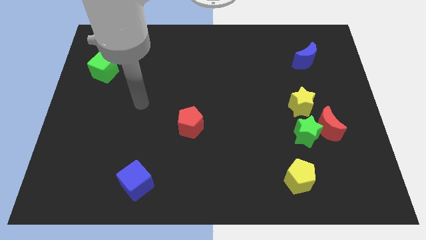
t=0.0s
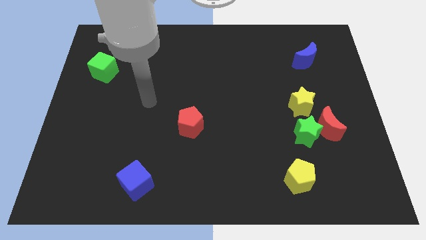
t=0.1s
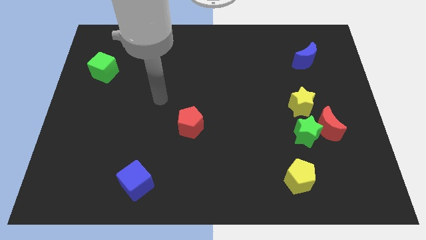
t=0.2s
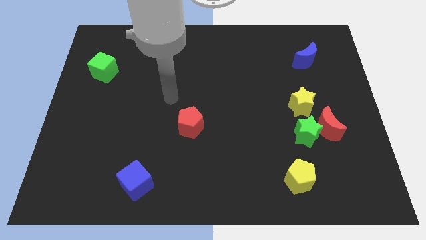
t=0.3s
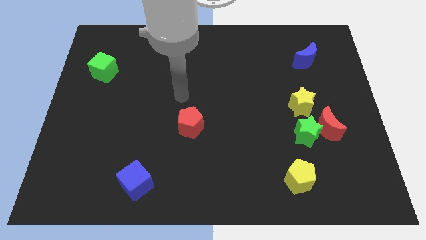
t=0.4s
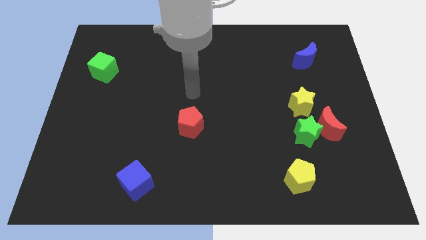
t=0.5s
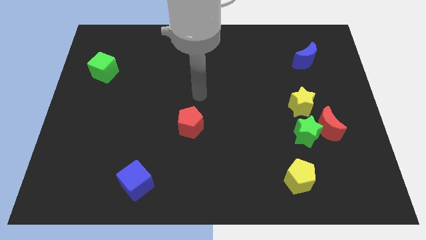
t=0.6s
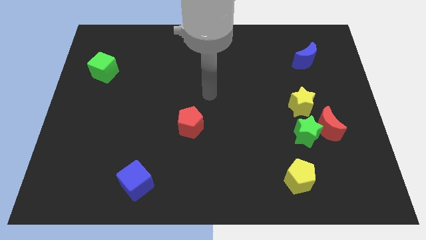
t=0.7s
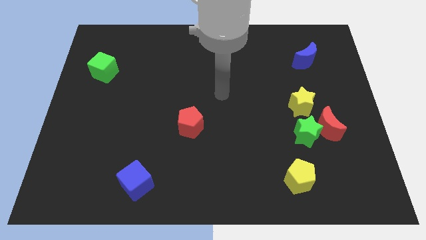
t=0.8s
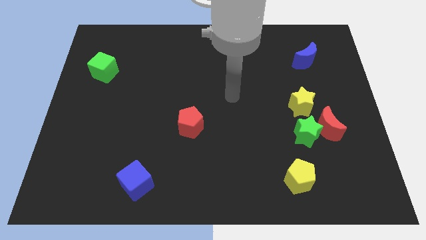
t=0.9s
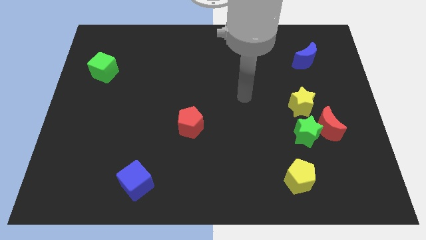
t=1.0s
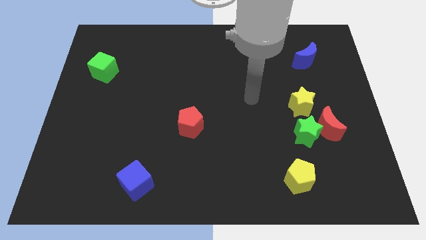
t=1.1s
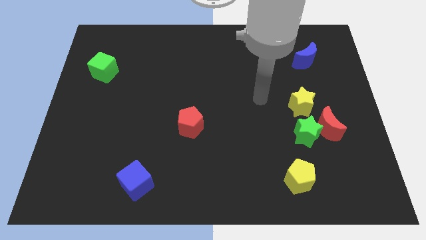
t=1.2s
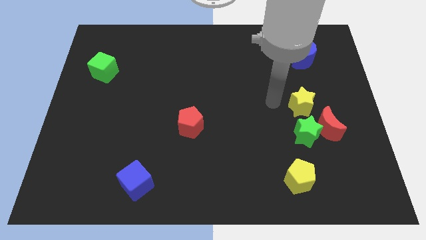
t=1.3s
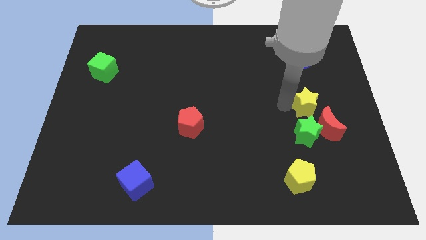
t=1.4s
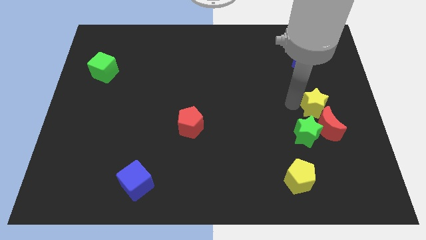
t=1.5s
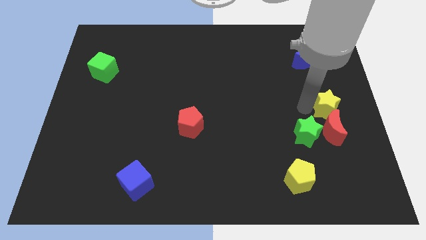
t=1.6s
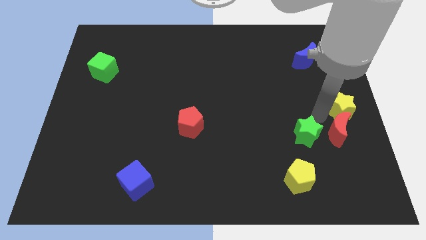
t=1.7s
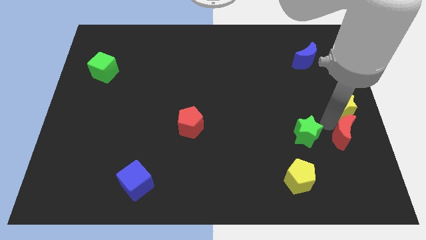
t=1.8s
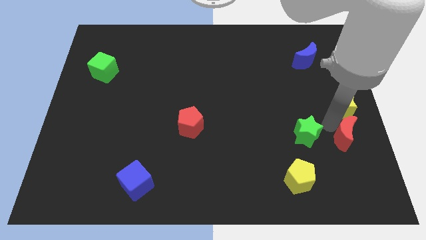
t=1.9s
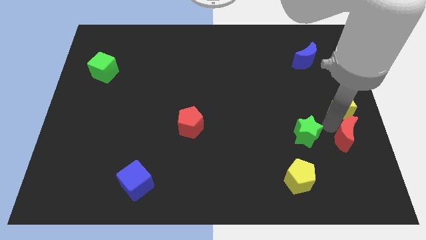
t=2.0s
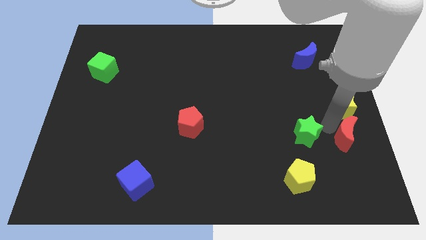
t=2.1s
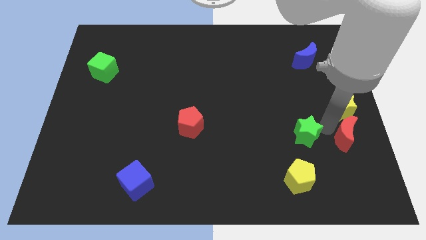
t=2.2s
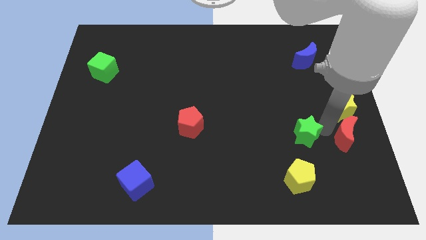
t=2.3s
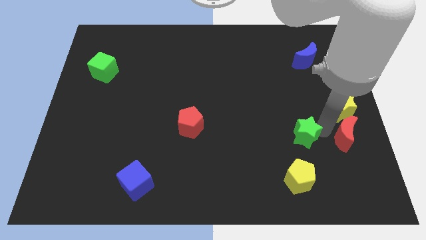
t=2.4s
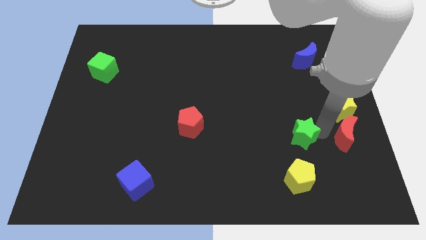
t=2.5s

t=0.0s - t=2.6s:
move the green star away from the red moon and yellow star

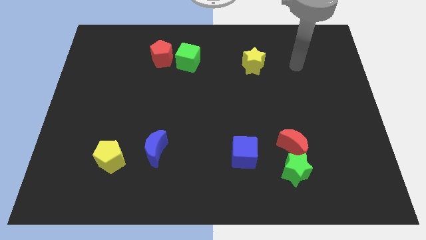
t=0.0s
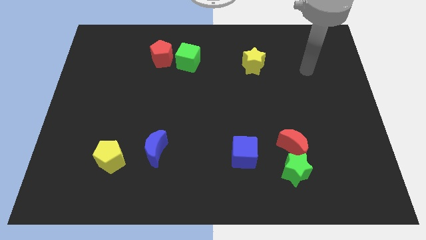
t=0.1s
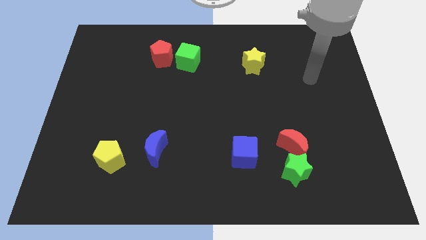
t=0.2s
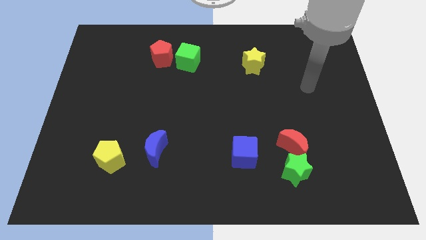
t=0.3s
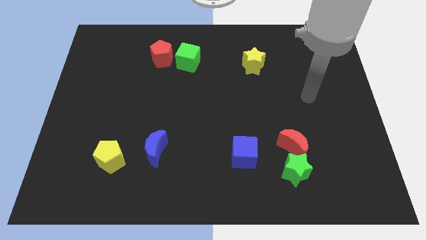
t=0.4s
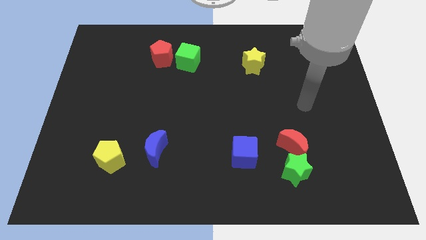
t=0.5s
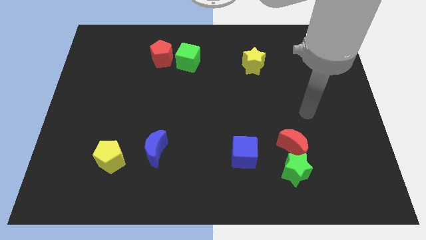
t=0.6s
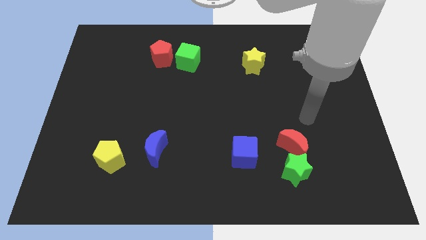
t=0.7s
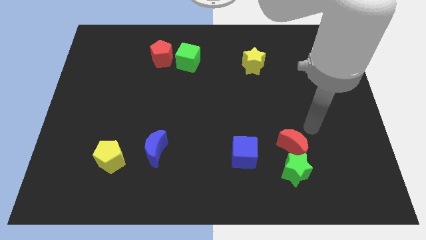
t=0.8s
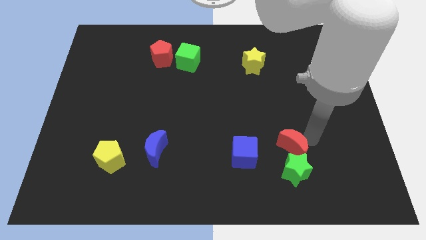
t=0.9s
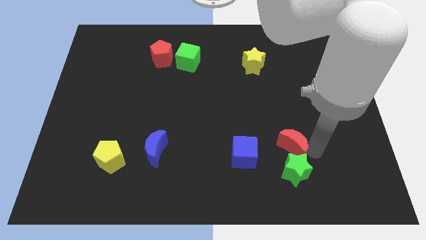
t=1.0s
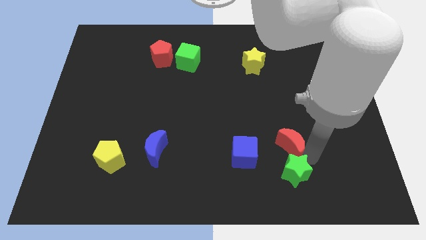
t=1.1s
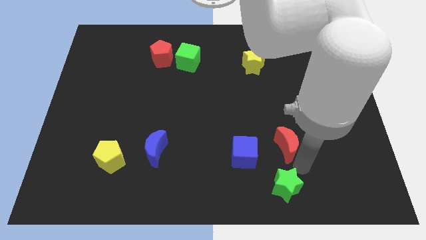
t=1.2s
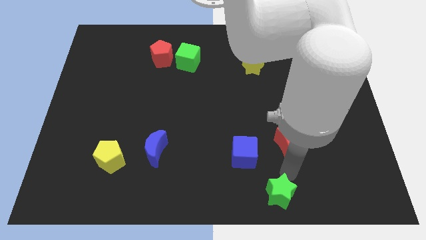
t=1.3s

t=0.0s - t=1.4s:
separate the red moon from the green star

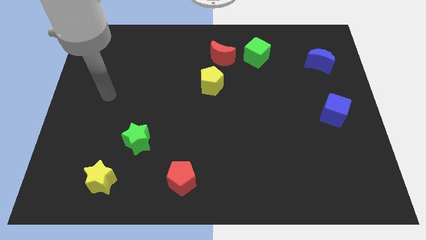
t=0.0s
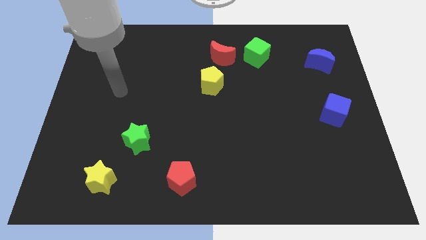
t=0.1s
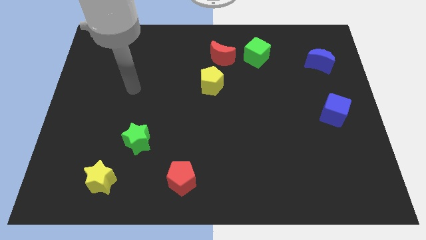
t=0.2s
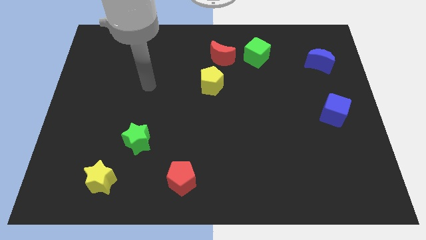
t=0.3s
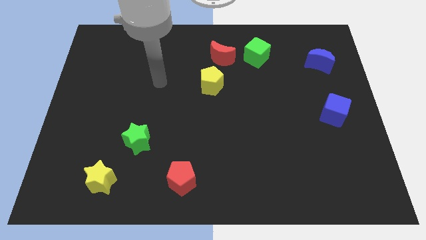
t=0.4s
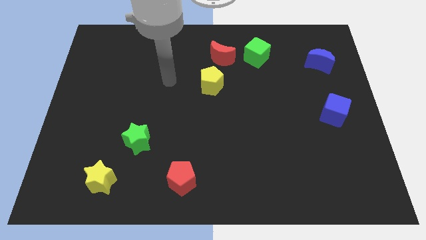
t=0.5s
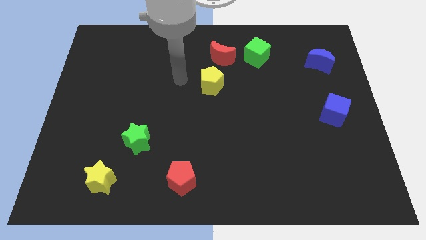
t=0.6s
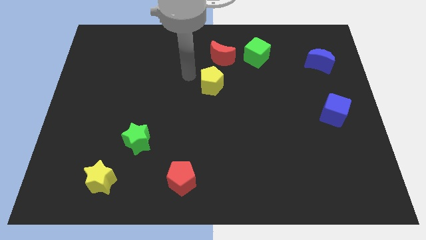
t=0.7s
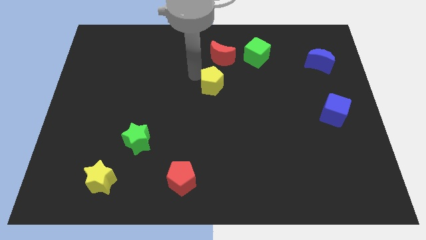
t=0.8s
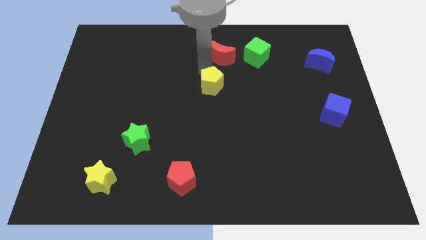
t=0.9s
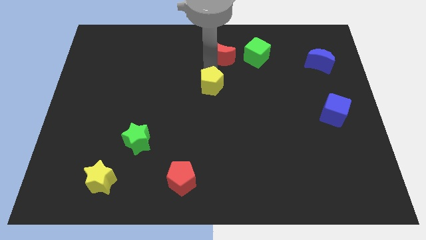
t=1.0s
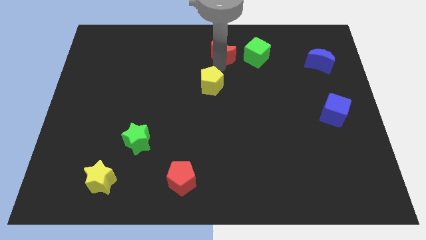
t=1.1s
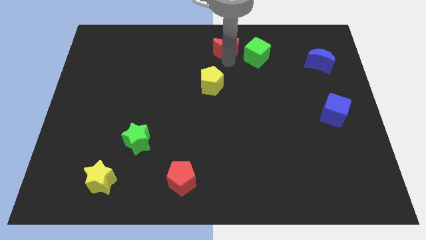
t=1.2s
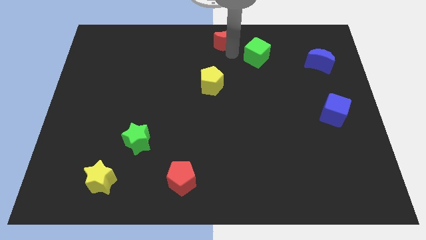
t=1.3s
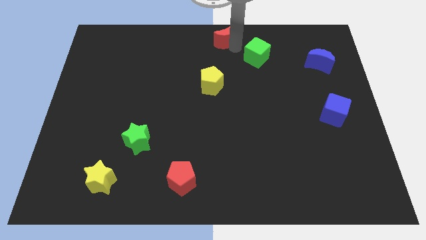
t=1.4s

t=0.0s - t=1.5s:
pull the green cube apart from the red moon

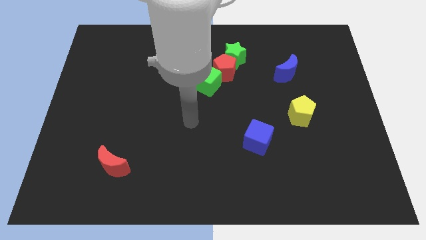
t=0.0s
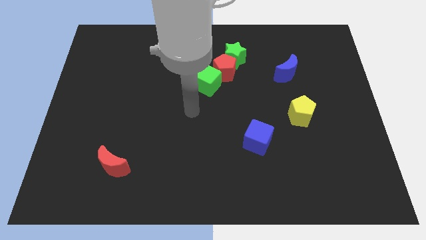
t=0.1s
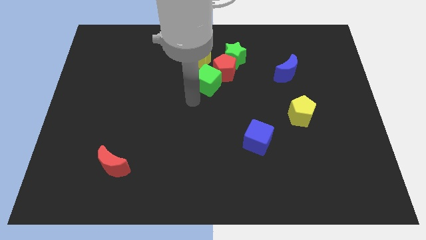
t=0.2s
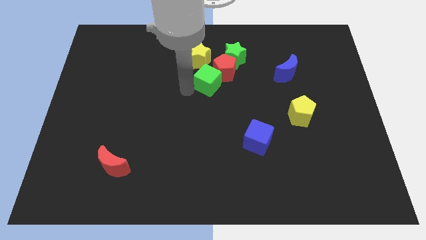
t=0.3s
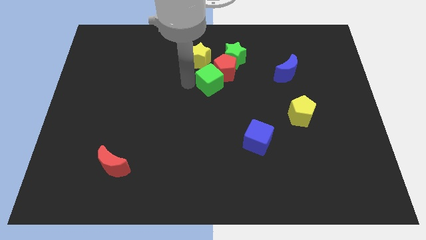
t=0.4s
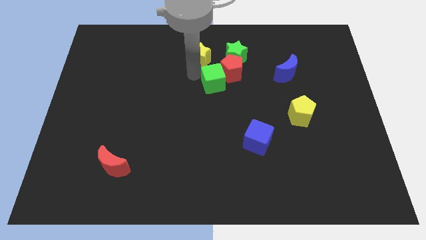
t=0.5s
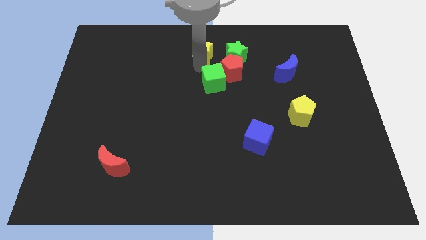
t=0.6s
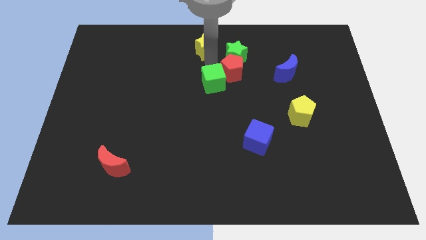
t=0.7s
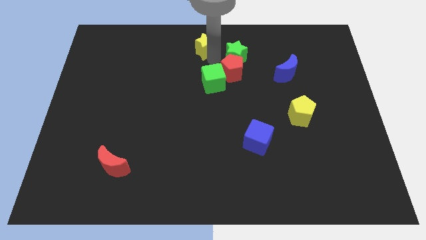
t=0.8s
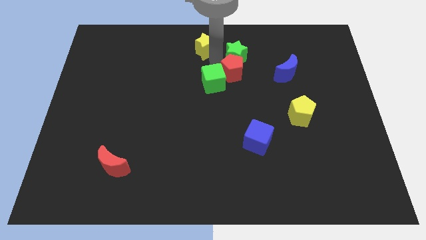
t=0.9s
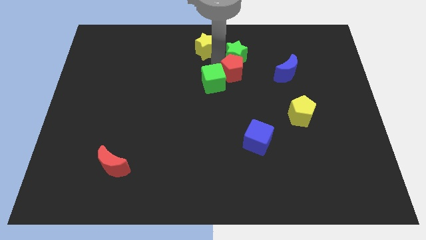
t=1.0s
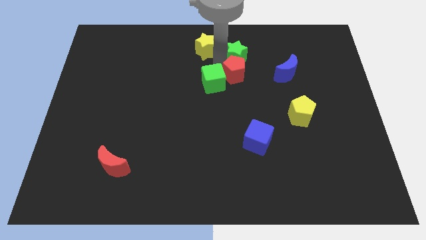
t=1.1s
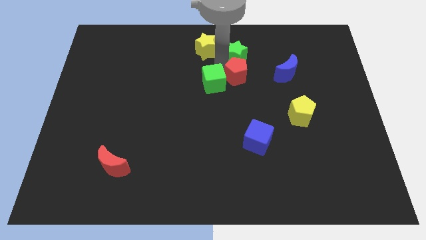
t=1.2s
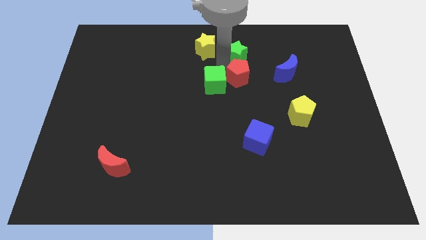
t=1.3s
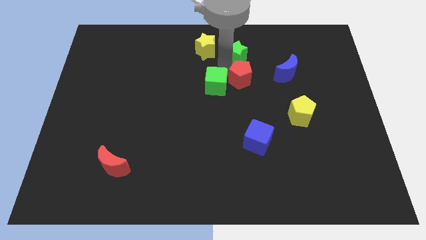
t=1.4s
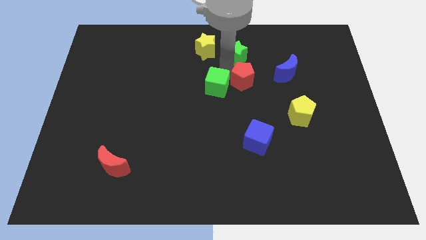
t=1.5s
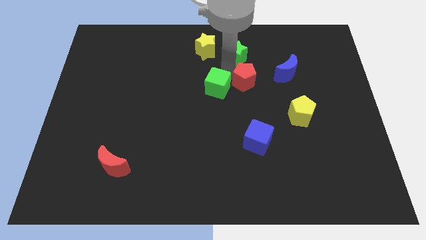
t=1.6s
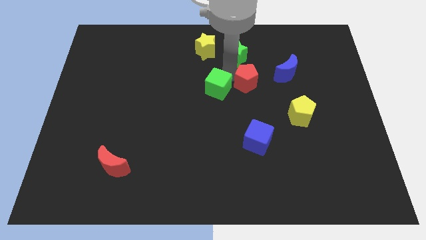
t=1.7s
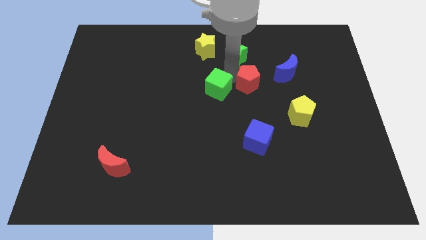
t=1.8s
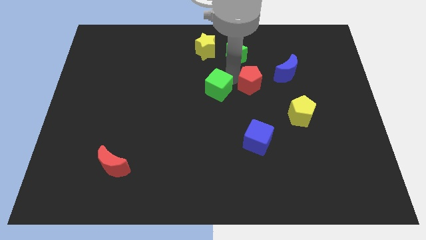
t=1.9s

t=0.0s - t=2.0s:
pull the red pentagon apart from the group of blocks

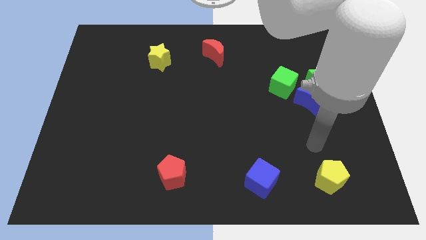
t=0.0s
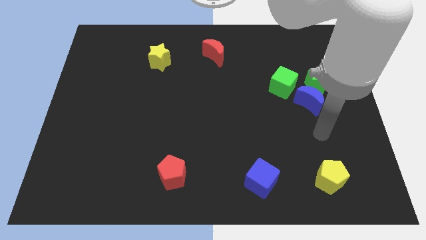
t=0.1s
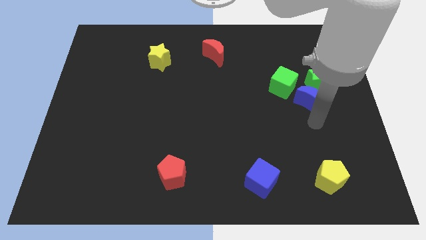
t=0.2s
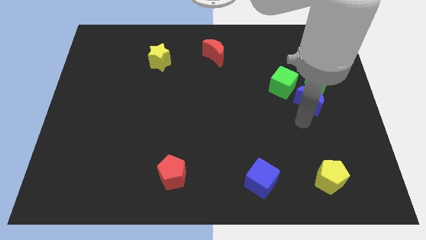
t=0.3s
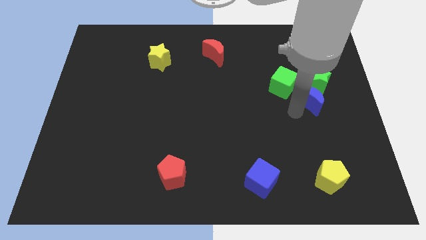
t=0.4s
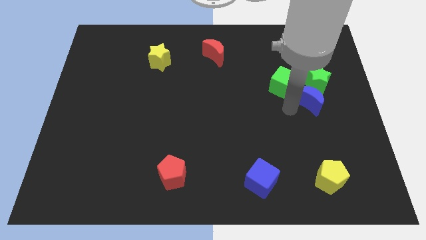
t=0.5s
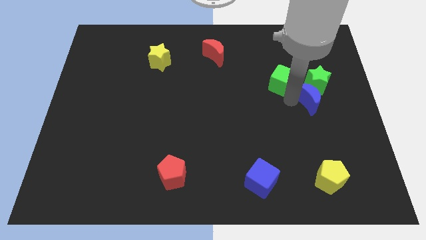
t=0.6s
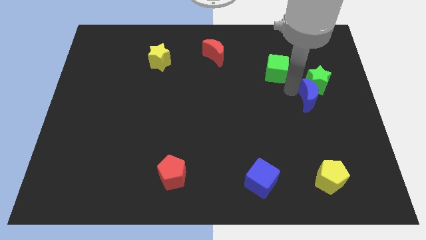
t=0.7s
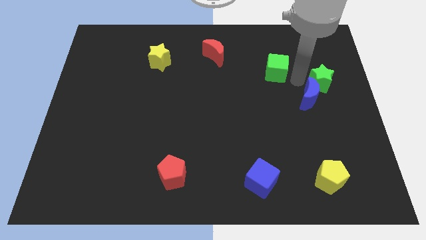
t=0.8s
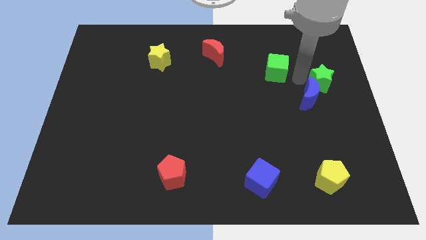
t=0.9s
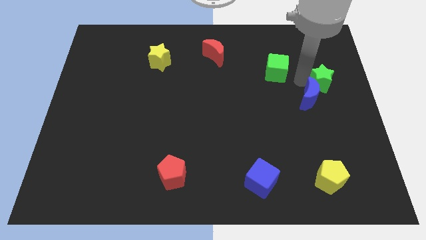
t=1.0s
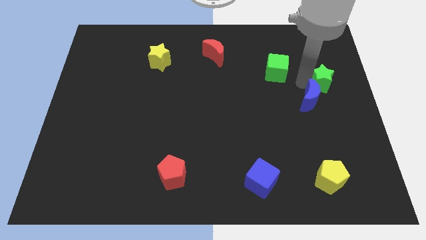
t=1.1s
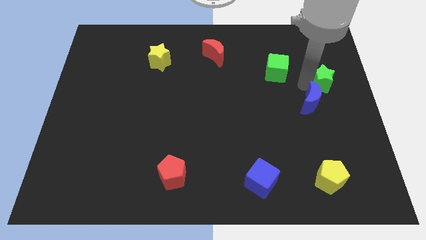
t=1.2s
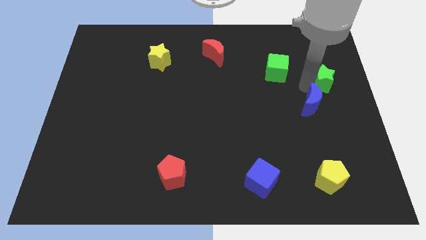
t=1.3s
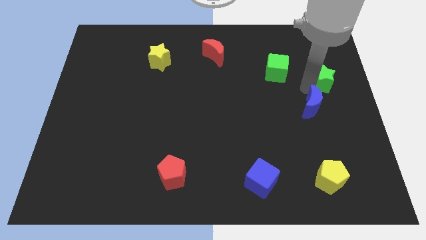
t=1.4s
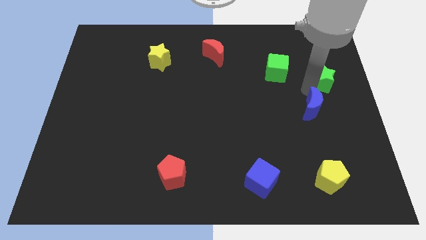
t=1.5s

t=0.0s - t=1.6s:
separate the blue moon from the green star and green cube

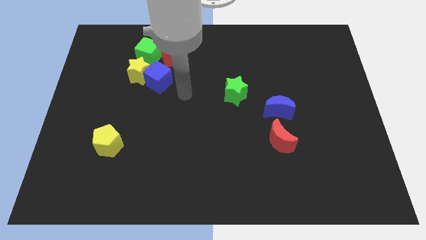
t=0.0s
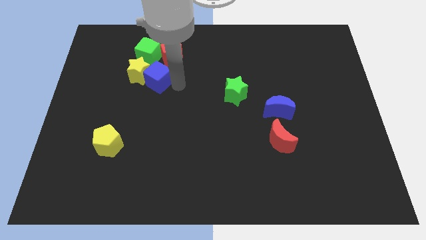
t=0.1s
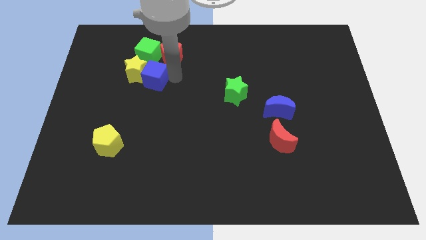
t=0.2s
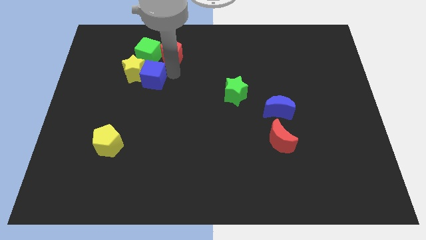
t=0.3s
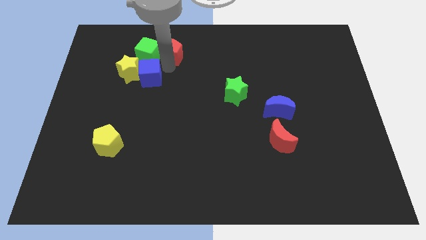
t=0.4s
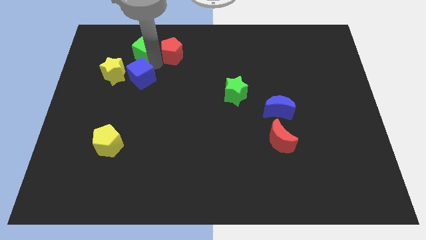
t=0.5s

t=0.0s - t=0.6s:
move the yellow star away from the group
